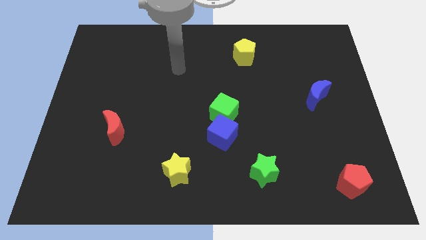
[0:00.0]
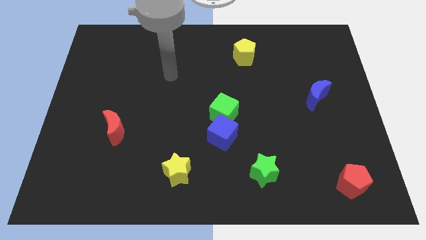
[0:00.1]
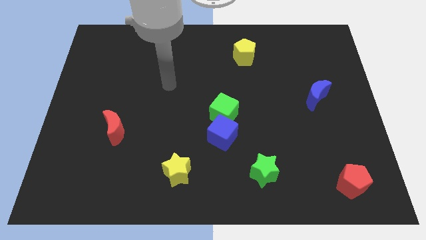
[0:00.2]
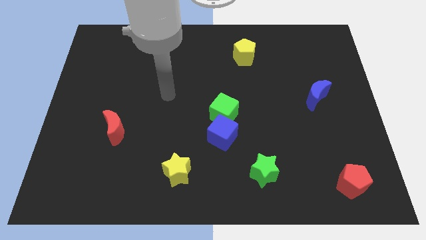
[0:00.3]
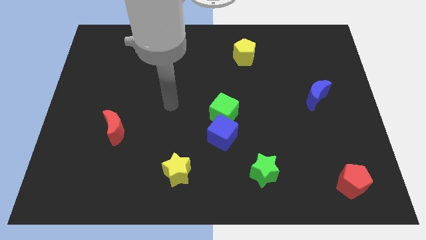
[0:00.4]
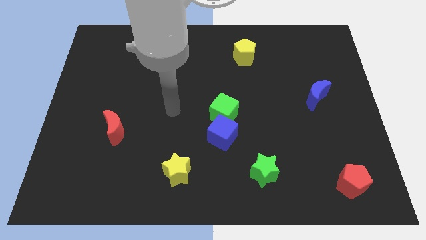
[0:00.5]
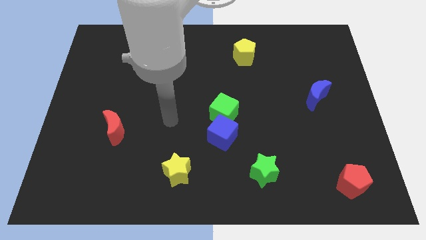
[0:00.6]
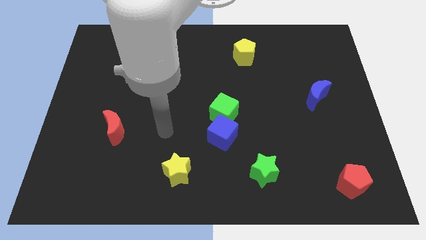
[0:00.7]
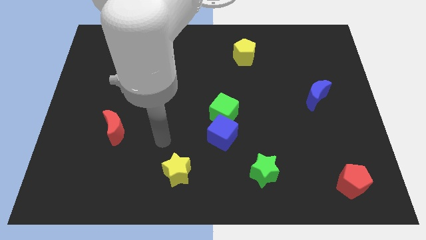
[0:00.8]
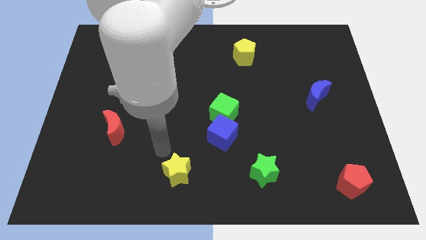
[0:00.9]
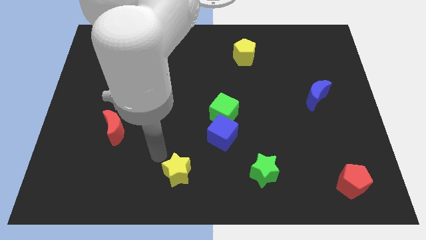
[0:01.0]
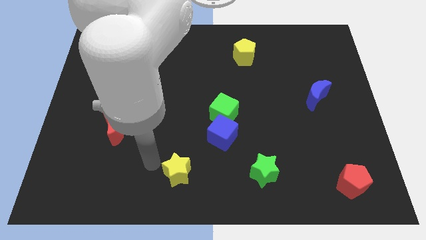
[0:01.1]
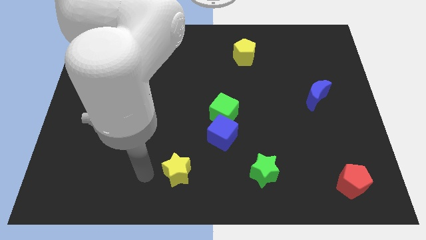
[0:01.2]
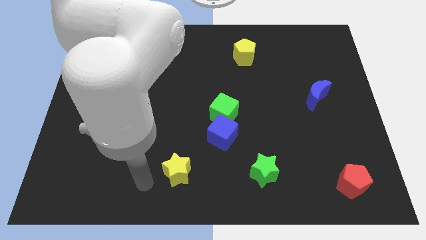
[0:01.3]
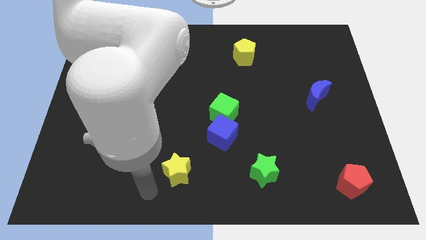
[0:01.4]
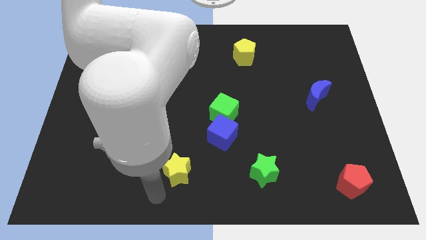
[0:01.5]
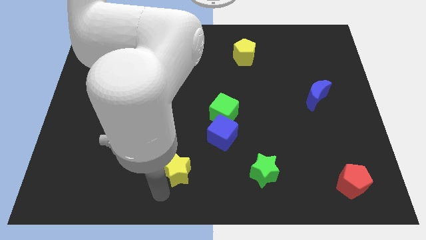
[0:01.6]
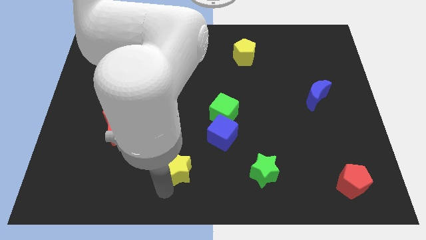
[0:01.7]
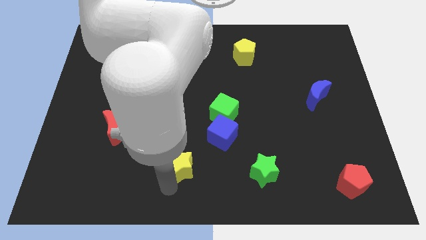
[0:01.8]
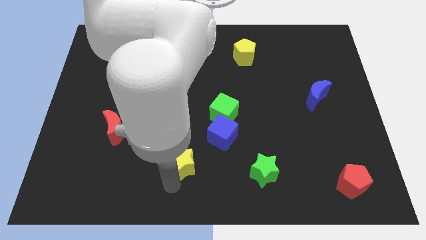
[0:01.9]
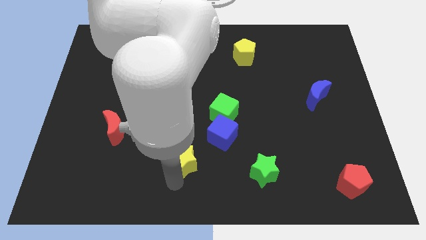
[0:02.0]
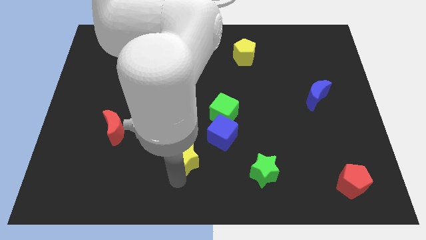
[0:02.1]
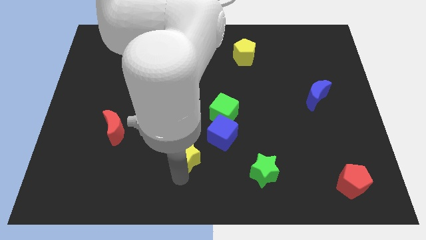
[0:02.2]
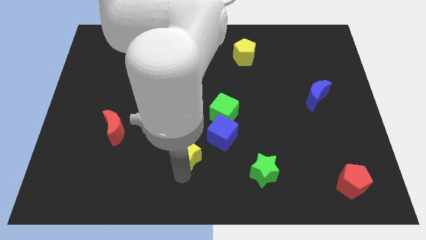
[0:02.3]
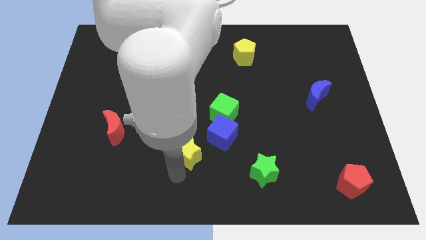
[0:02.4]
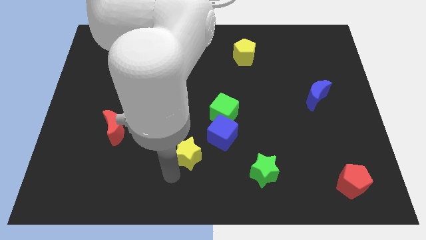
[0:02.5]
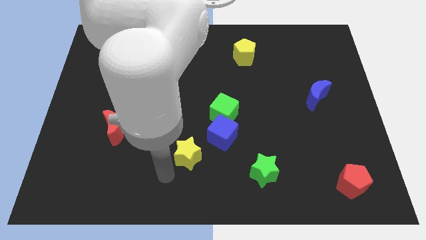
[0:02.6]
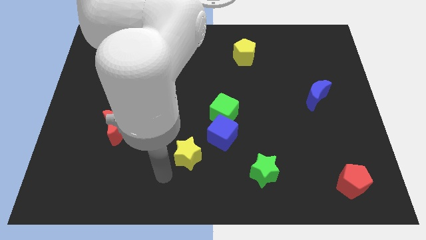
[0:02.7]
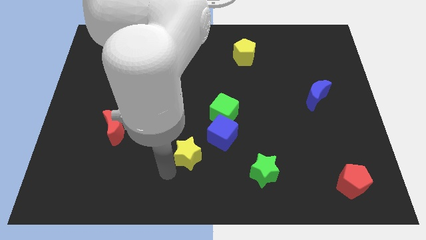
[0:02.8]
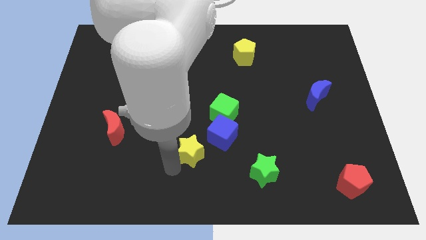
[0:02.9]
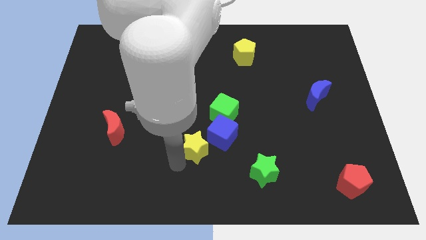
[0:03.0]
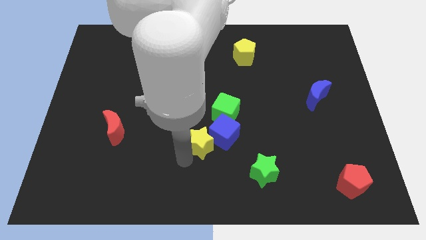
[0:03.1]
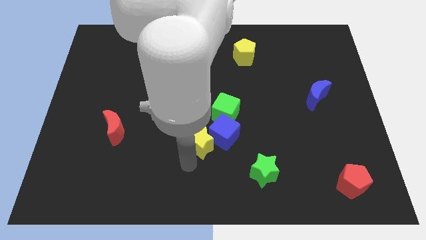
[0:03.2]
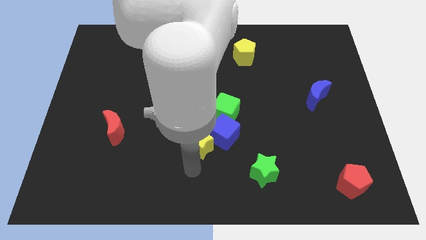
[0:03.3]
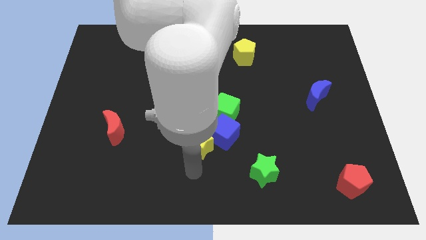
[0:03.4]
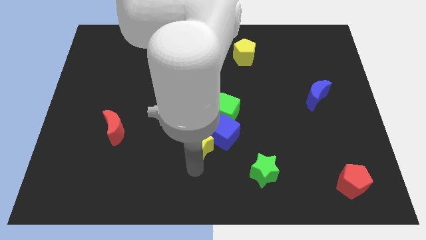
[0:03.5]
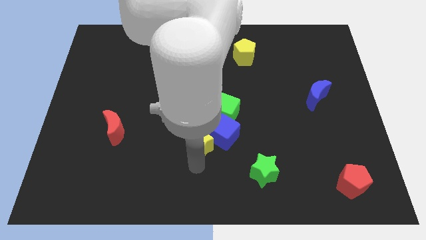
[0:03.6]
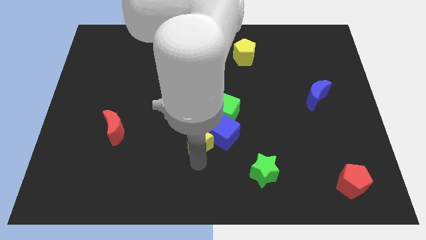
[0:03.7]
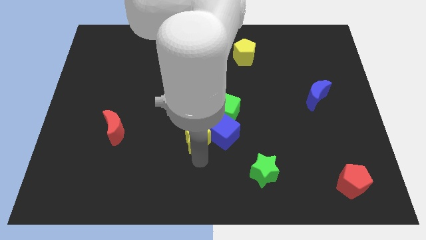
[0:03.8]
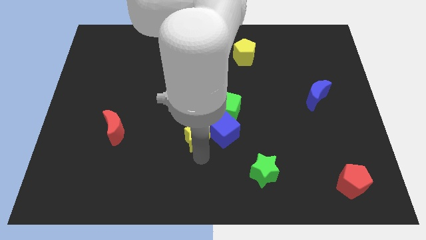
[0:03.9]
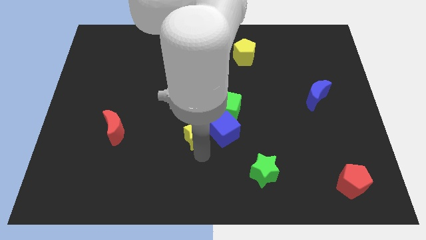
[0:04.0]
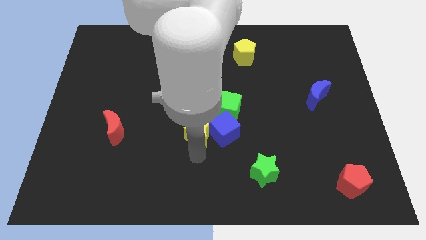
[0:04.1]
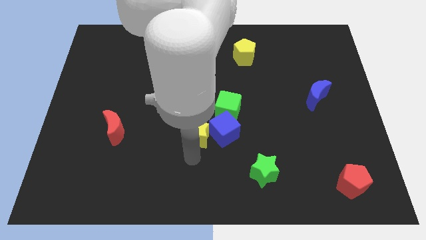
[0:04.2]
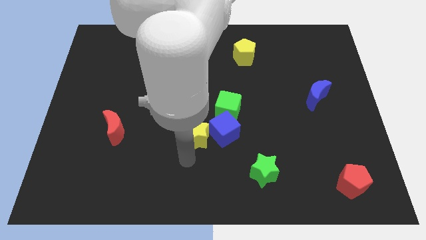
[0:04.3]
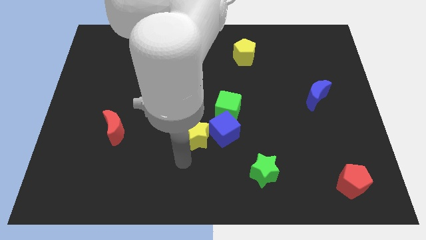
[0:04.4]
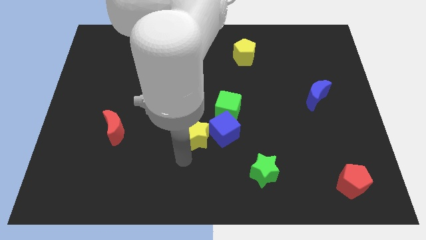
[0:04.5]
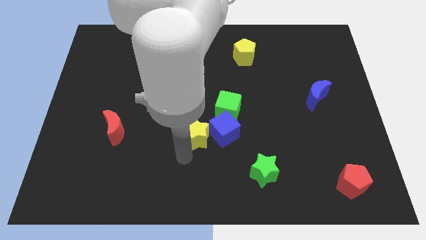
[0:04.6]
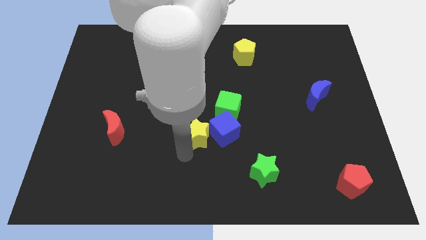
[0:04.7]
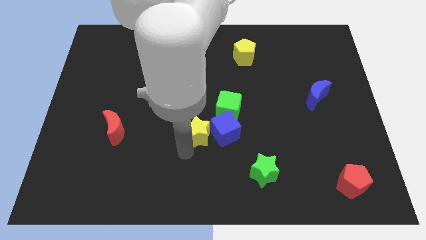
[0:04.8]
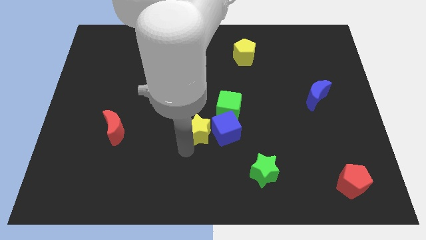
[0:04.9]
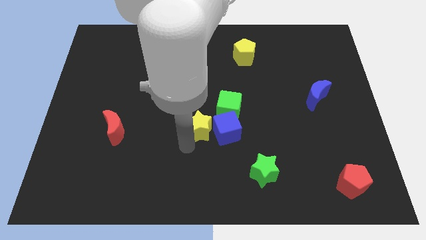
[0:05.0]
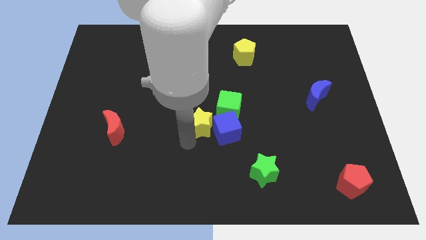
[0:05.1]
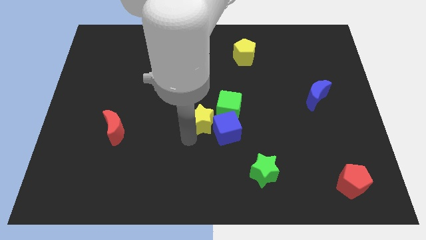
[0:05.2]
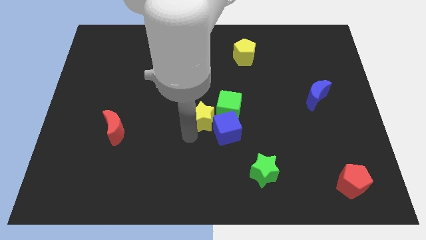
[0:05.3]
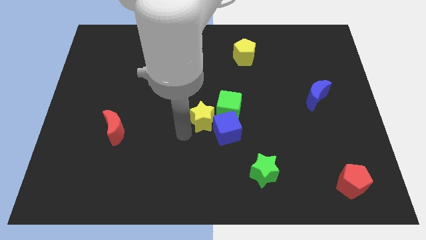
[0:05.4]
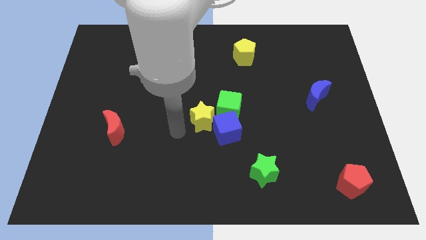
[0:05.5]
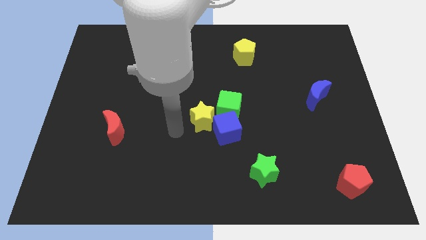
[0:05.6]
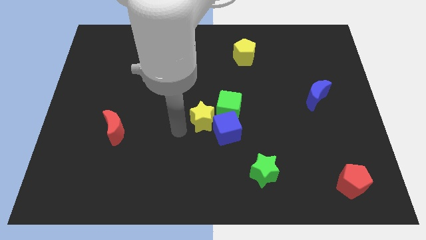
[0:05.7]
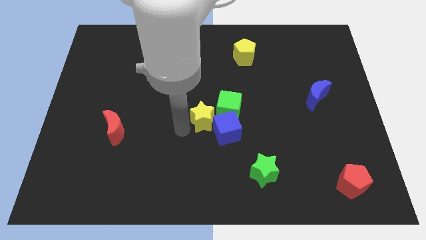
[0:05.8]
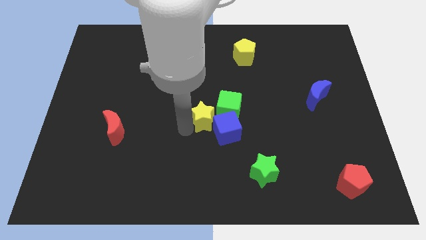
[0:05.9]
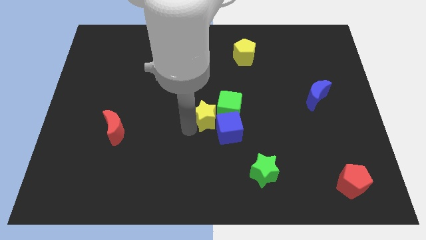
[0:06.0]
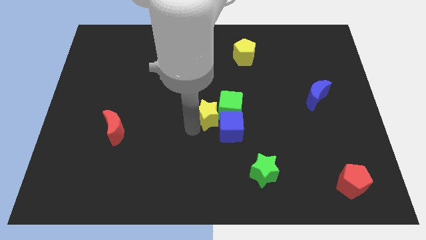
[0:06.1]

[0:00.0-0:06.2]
slide the yellow star next to the green cube

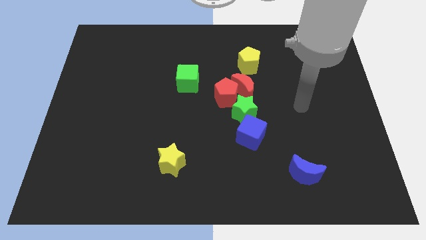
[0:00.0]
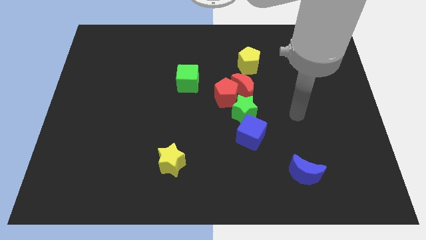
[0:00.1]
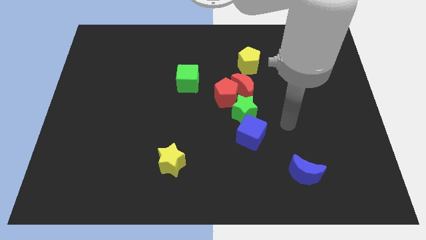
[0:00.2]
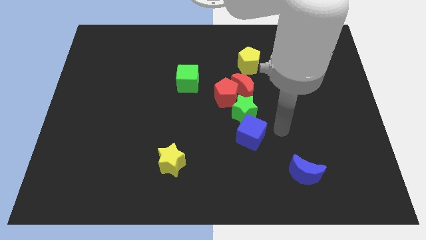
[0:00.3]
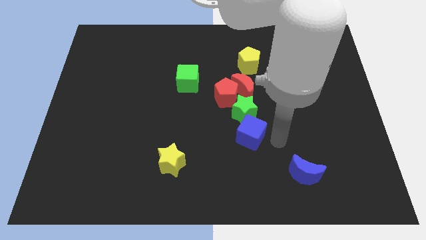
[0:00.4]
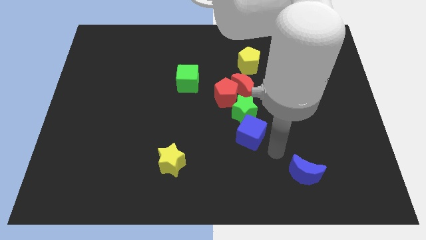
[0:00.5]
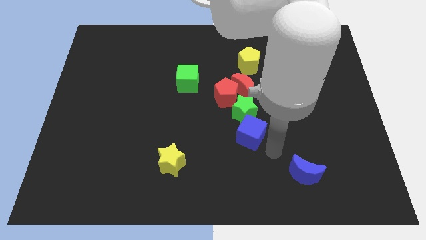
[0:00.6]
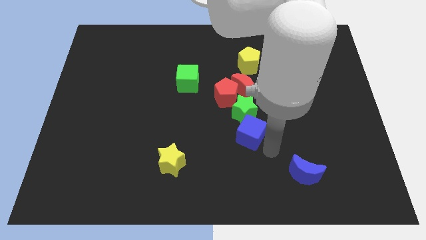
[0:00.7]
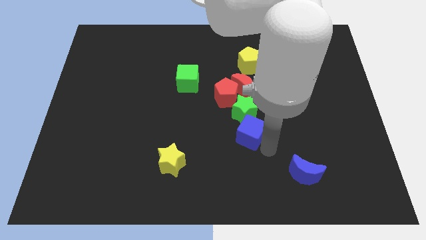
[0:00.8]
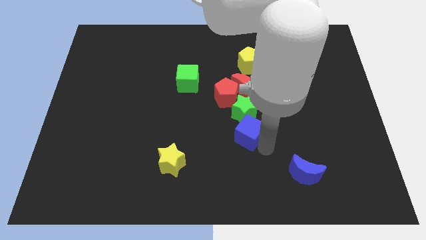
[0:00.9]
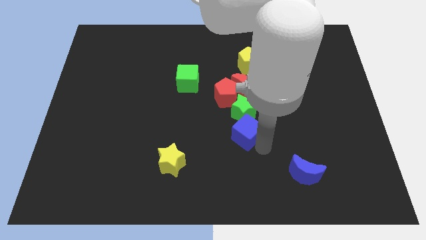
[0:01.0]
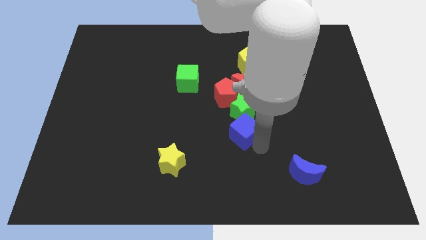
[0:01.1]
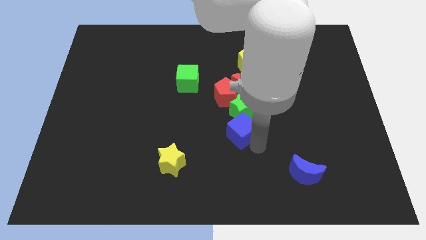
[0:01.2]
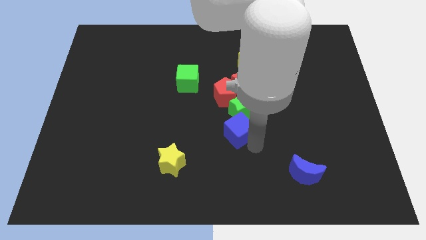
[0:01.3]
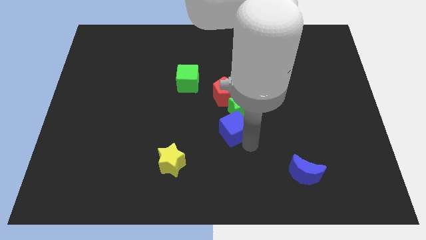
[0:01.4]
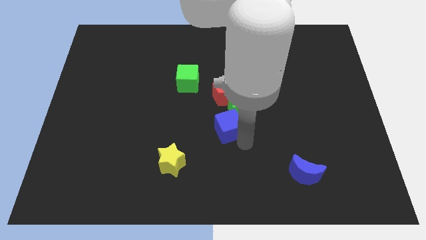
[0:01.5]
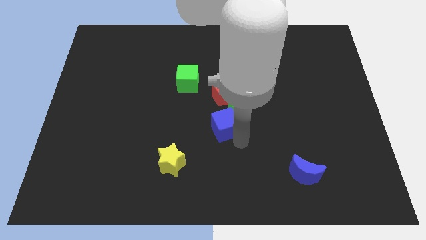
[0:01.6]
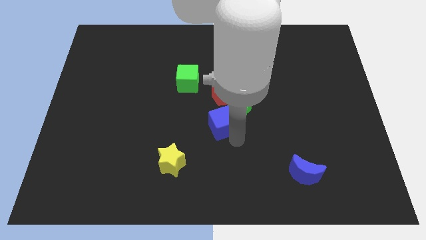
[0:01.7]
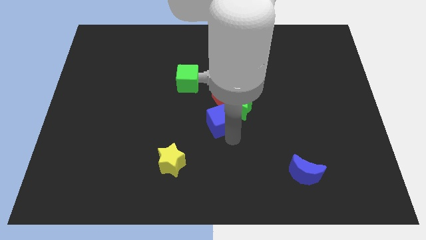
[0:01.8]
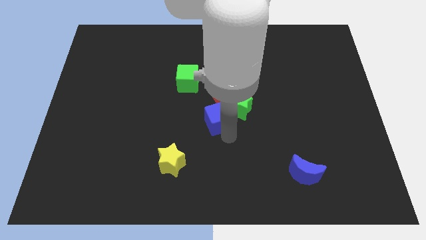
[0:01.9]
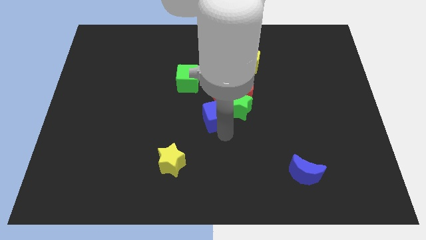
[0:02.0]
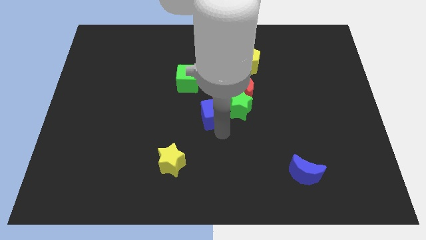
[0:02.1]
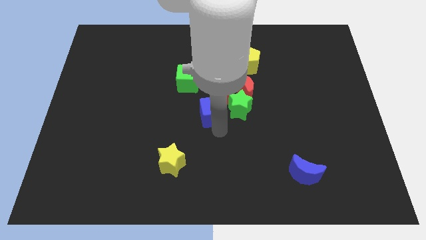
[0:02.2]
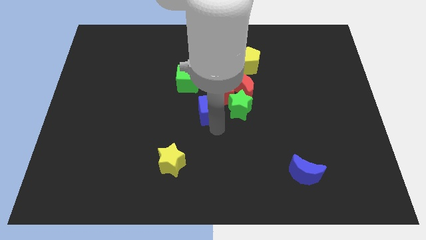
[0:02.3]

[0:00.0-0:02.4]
push the blue cube towards the red pentagon
